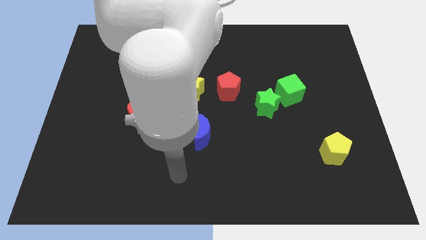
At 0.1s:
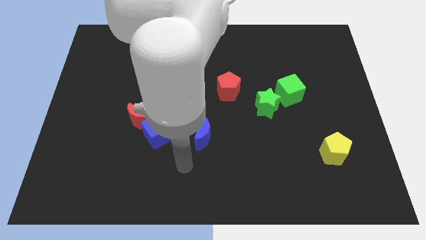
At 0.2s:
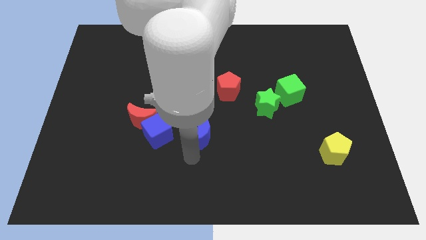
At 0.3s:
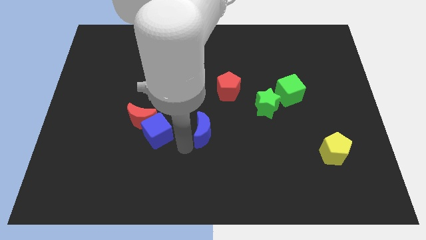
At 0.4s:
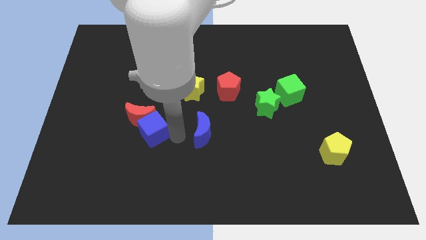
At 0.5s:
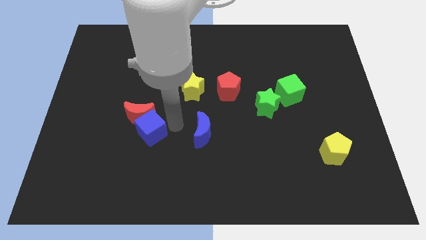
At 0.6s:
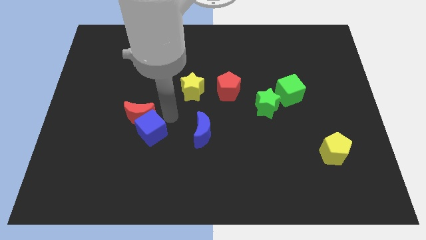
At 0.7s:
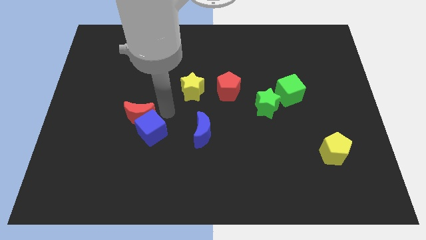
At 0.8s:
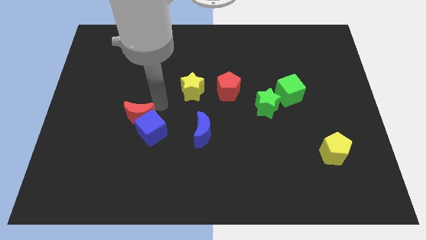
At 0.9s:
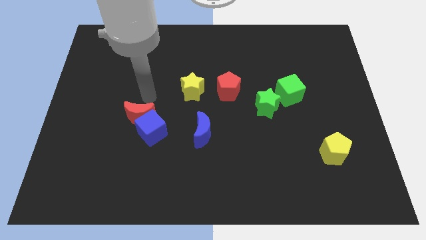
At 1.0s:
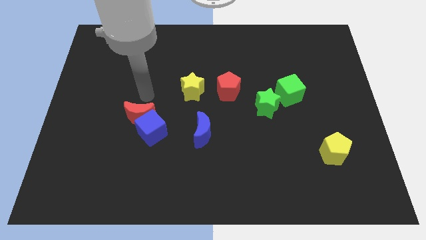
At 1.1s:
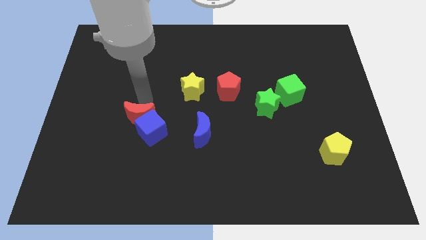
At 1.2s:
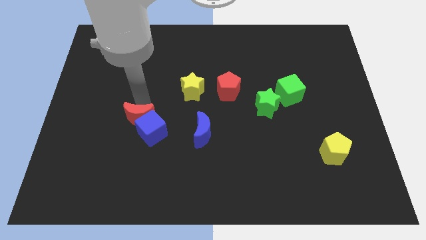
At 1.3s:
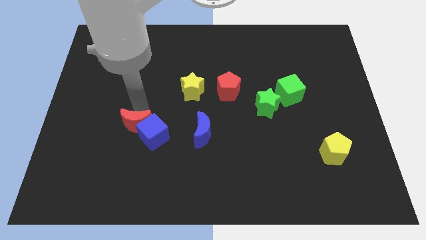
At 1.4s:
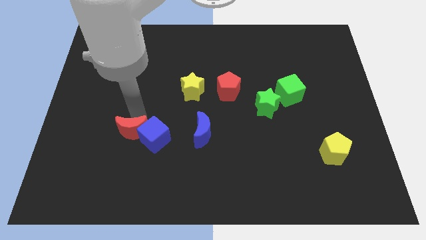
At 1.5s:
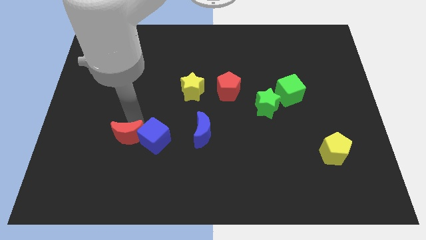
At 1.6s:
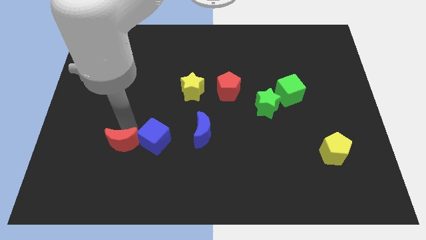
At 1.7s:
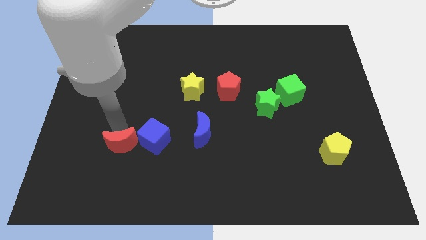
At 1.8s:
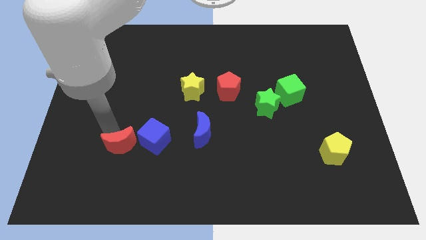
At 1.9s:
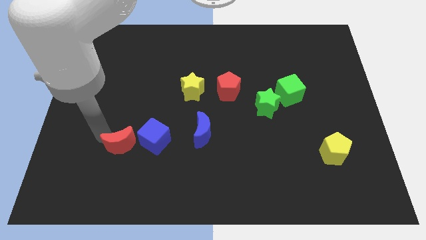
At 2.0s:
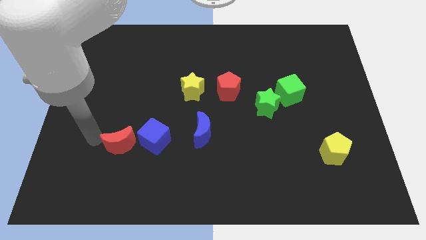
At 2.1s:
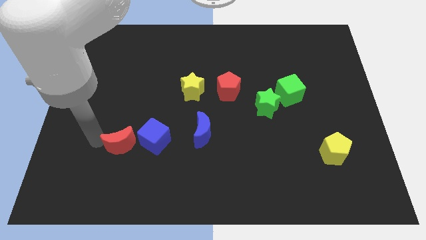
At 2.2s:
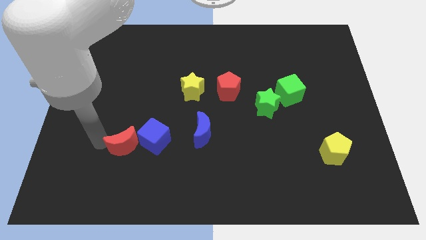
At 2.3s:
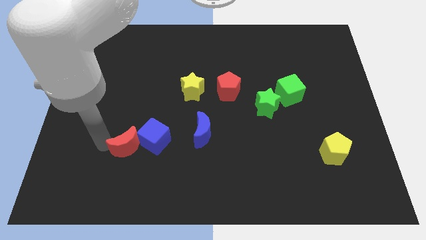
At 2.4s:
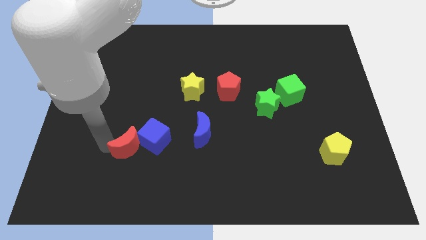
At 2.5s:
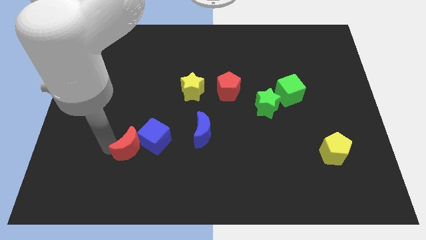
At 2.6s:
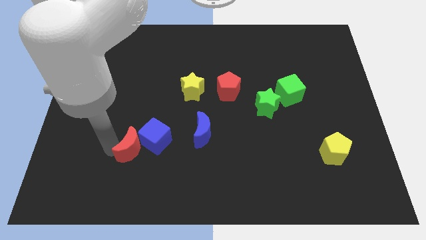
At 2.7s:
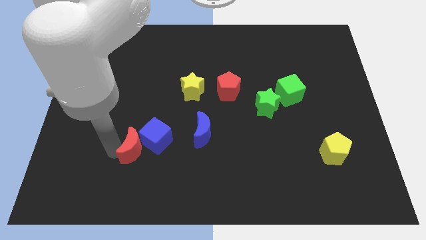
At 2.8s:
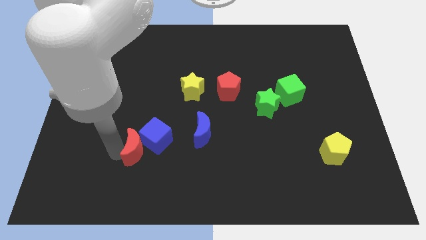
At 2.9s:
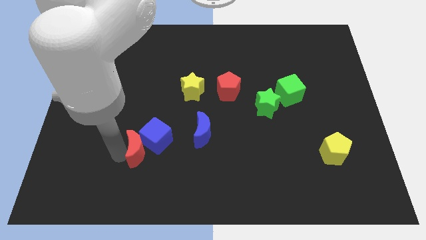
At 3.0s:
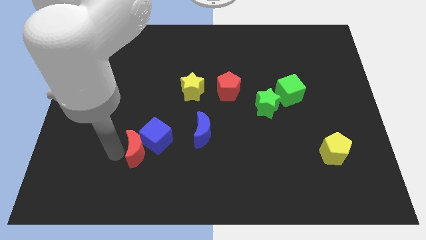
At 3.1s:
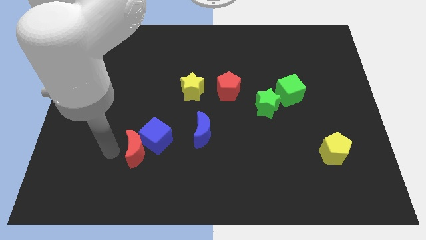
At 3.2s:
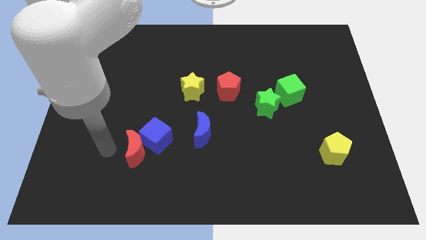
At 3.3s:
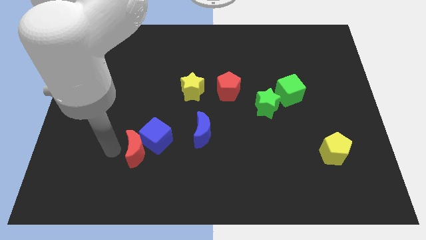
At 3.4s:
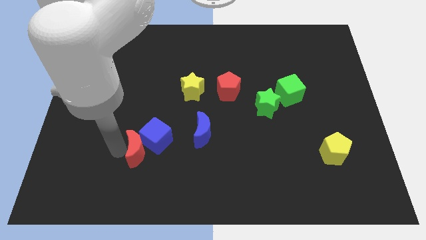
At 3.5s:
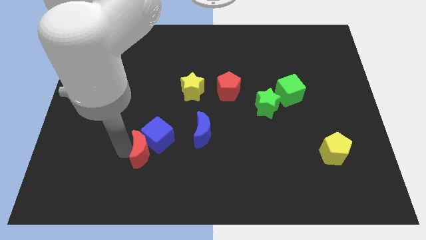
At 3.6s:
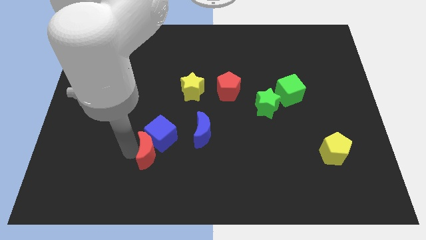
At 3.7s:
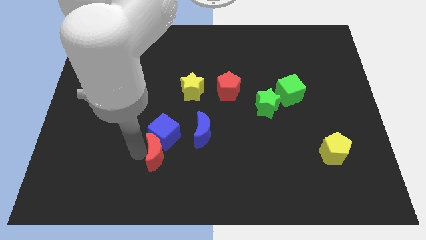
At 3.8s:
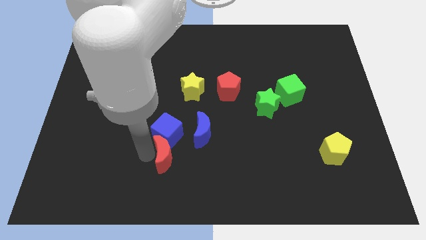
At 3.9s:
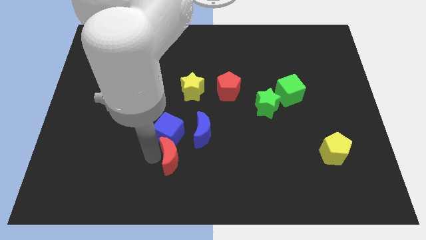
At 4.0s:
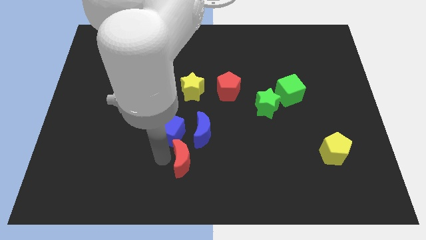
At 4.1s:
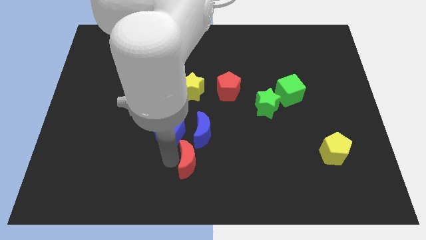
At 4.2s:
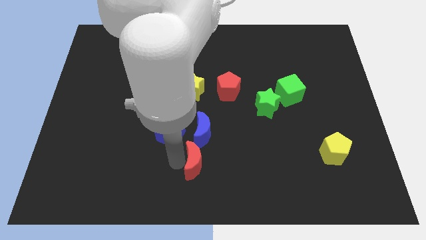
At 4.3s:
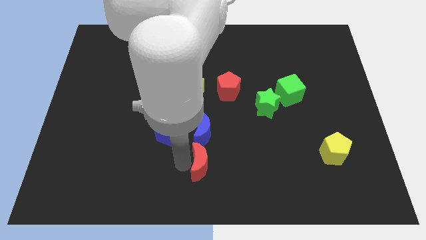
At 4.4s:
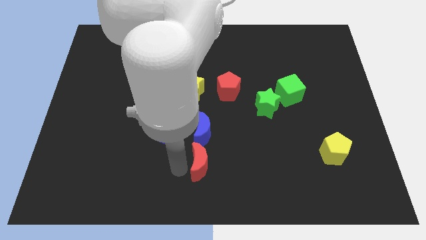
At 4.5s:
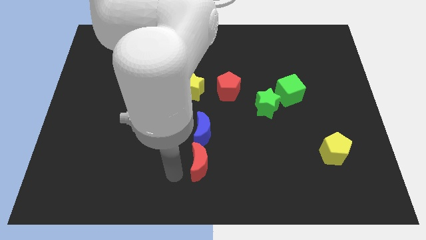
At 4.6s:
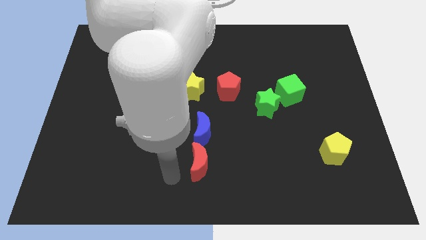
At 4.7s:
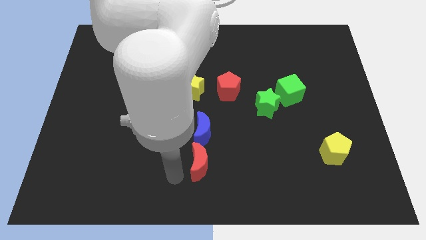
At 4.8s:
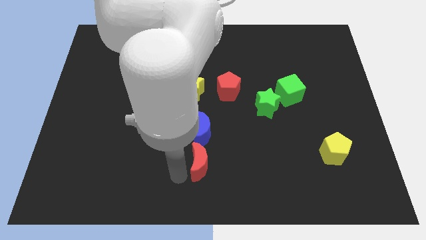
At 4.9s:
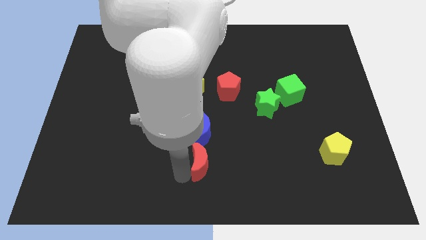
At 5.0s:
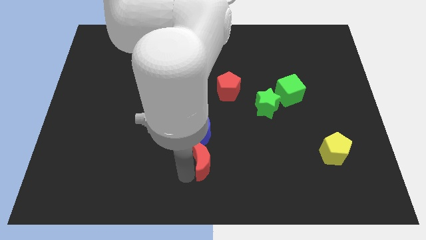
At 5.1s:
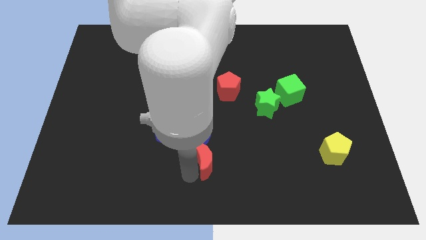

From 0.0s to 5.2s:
move the red moon to the bottom right side of the blue moon

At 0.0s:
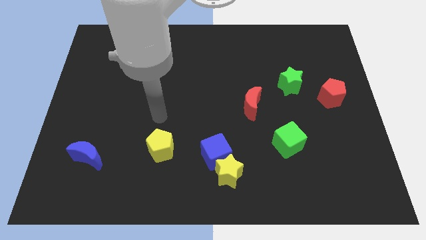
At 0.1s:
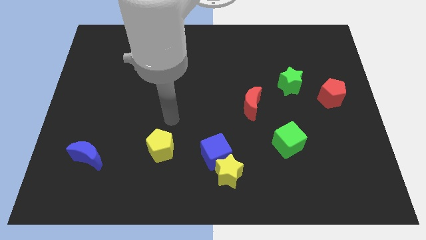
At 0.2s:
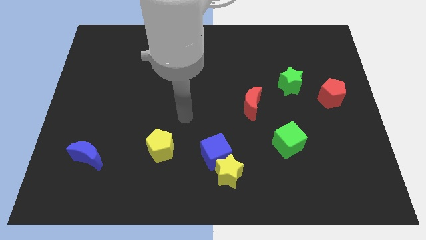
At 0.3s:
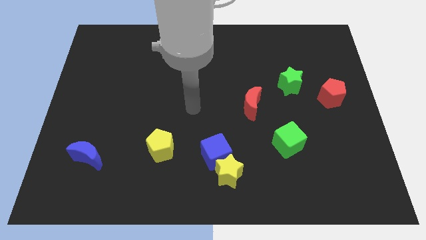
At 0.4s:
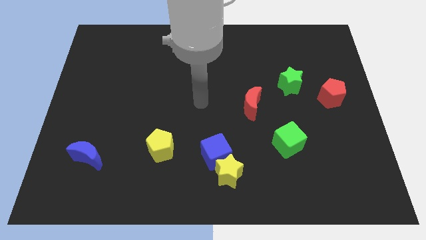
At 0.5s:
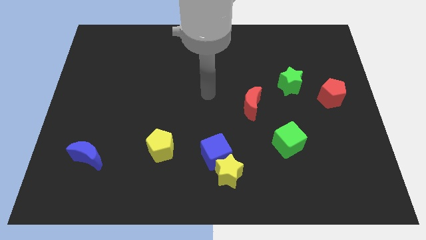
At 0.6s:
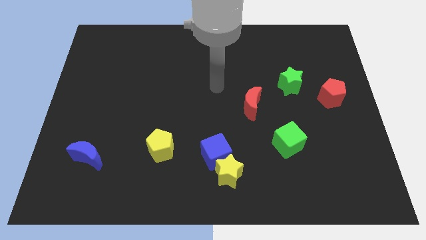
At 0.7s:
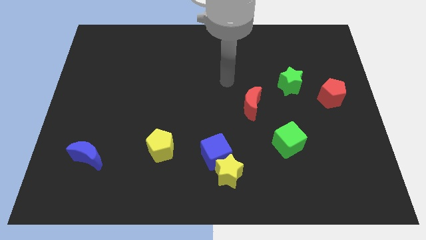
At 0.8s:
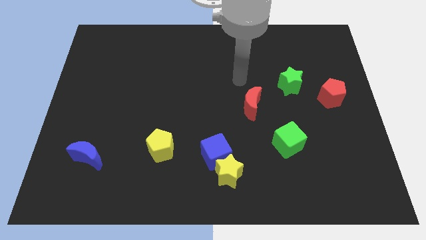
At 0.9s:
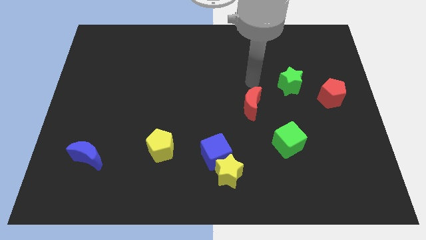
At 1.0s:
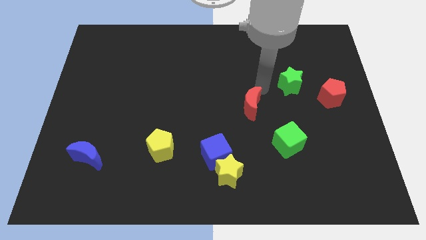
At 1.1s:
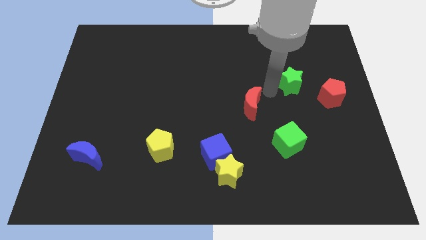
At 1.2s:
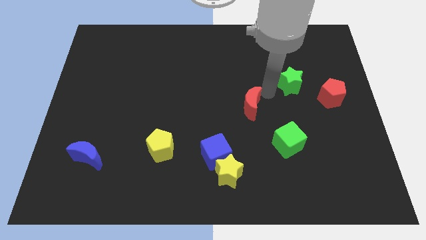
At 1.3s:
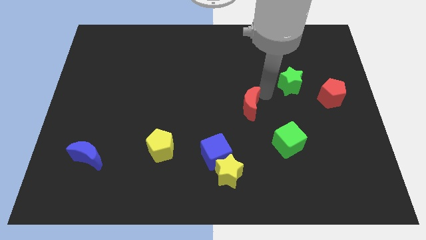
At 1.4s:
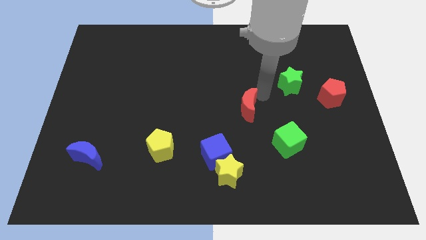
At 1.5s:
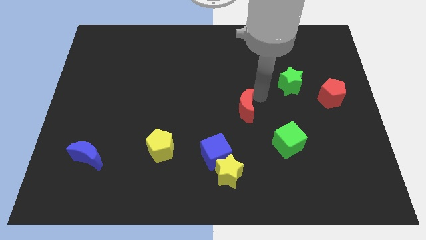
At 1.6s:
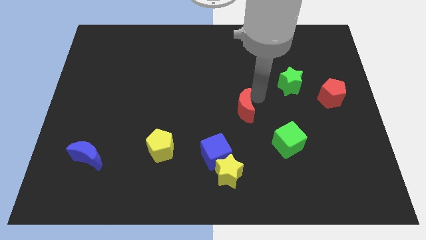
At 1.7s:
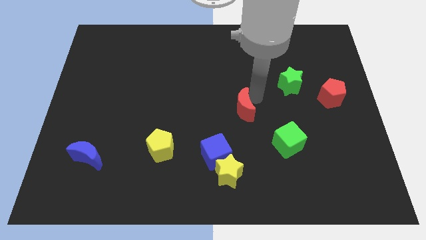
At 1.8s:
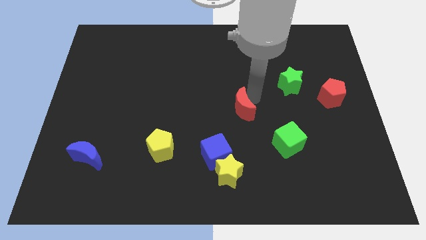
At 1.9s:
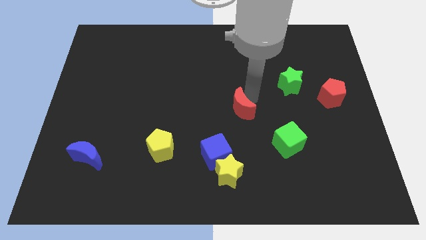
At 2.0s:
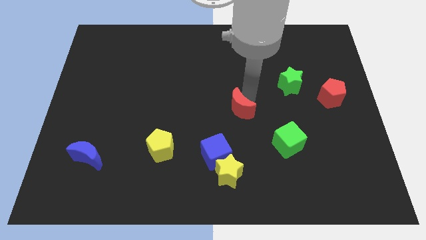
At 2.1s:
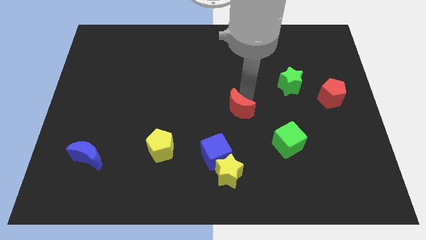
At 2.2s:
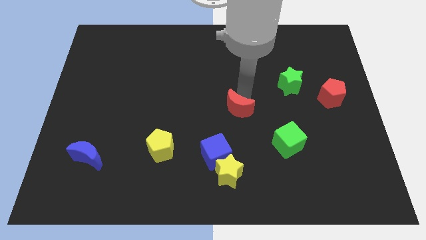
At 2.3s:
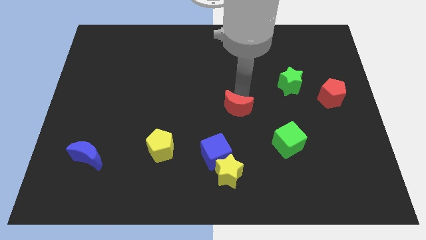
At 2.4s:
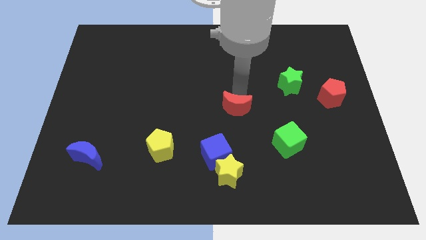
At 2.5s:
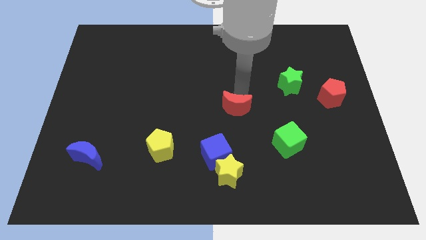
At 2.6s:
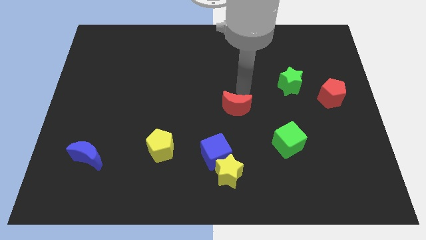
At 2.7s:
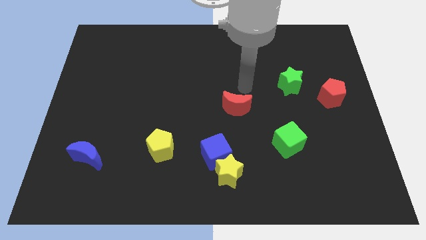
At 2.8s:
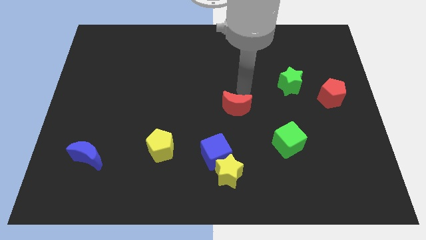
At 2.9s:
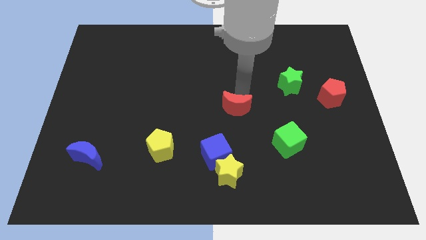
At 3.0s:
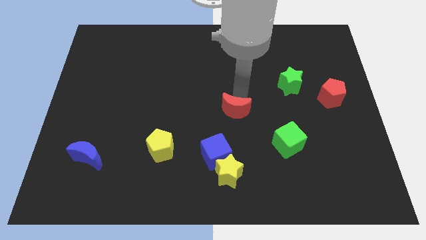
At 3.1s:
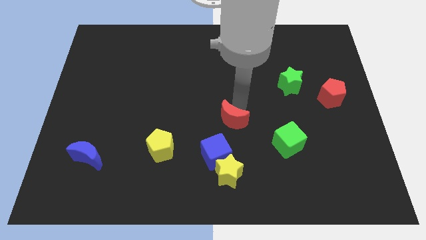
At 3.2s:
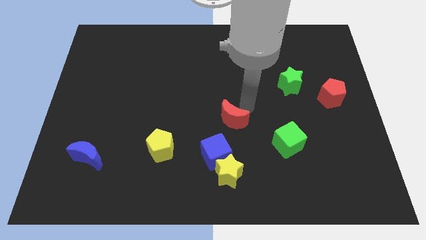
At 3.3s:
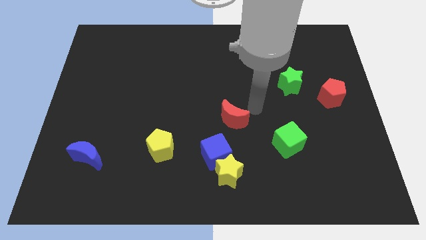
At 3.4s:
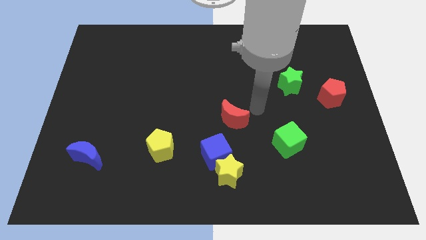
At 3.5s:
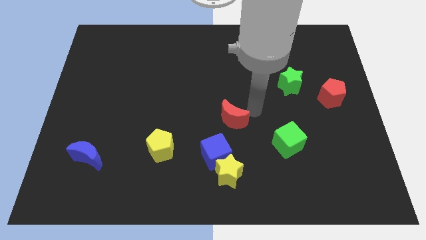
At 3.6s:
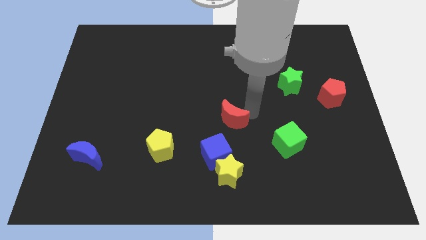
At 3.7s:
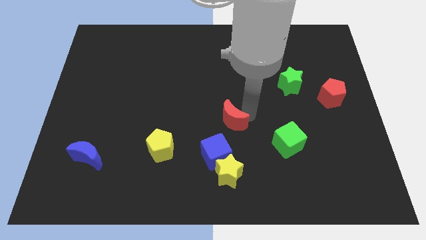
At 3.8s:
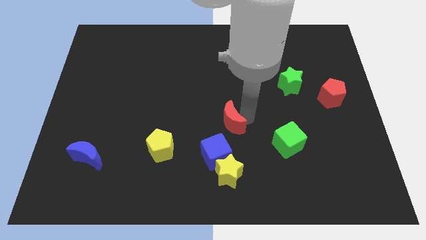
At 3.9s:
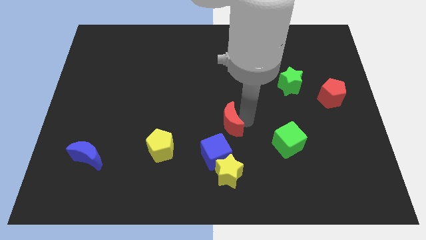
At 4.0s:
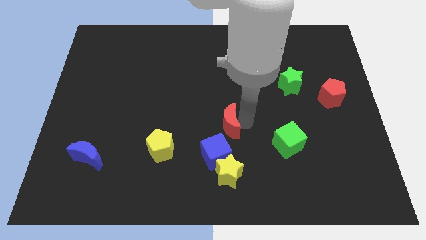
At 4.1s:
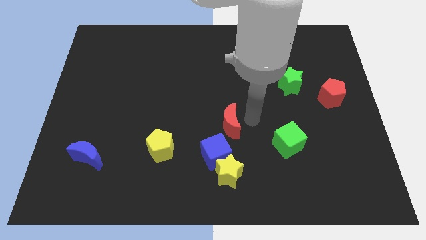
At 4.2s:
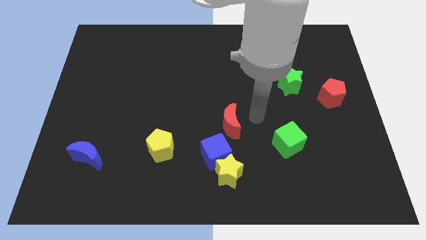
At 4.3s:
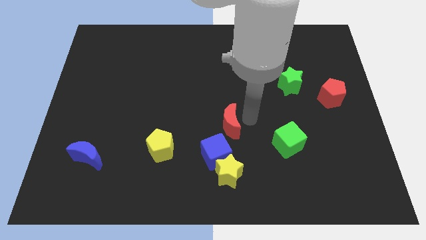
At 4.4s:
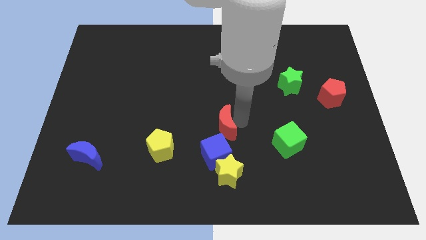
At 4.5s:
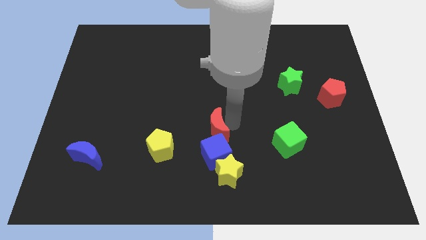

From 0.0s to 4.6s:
slide the red moon to the top left of the blue cube
